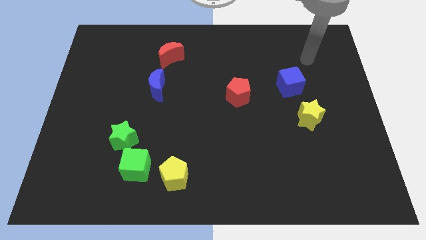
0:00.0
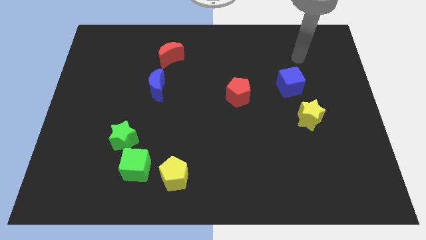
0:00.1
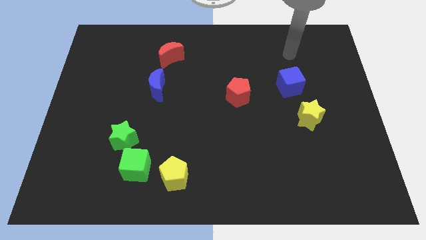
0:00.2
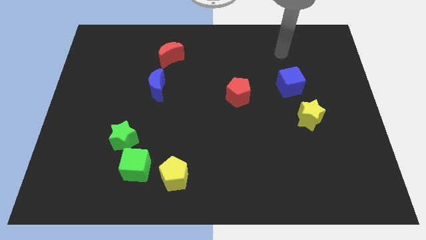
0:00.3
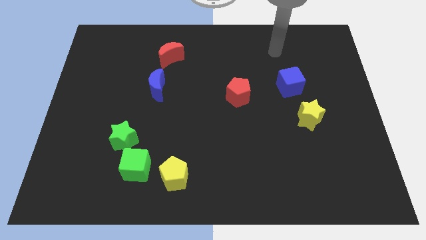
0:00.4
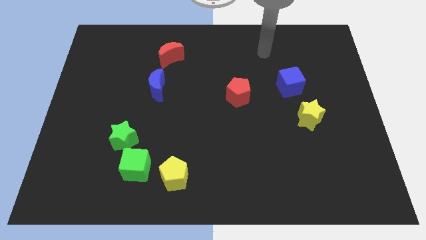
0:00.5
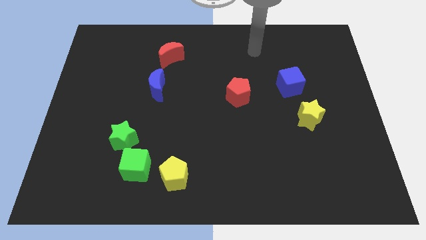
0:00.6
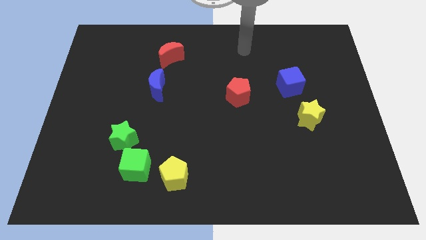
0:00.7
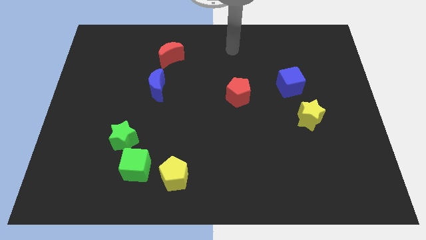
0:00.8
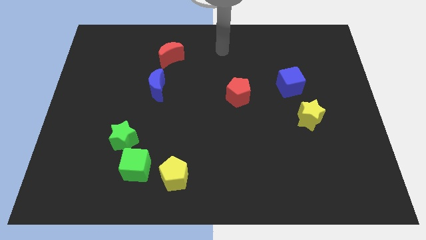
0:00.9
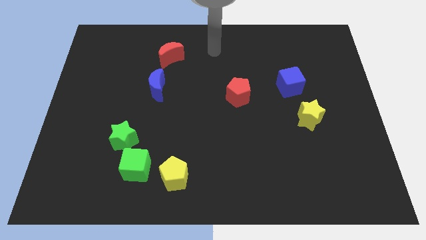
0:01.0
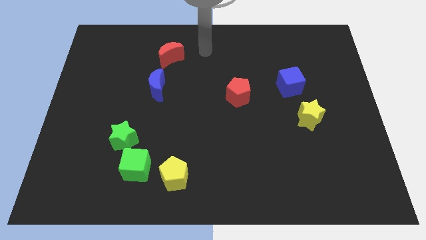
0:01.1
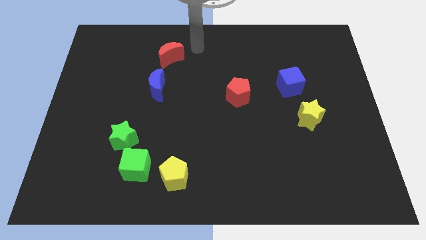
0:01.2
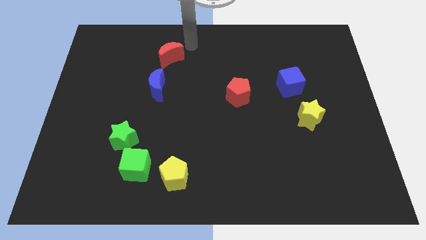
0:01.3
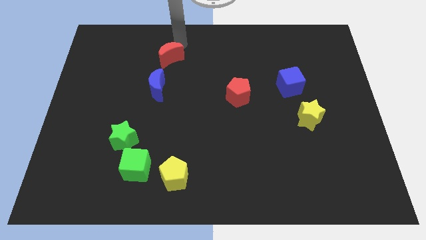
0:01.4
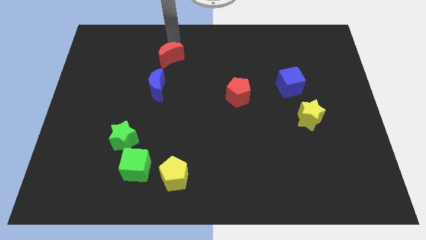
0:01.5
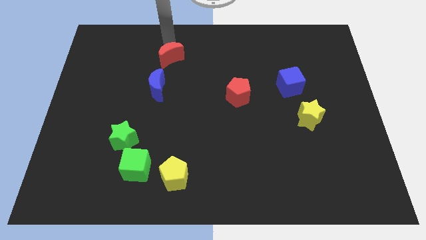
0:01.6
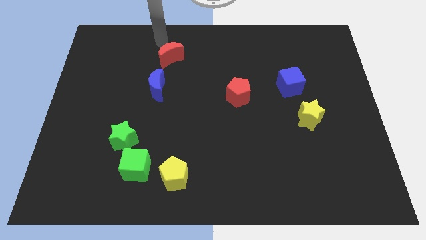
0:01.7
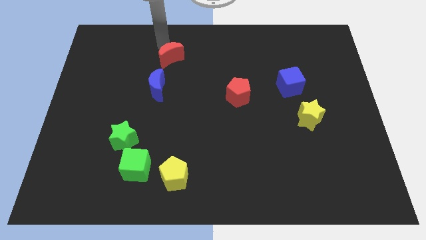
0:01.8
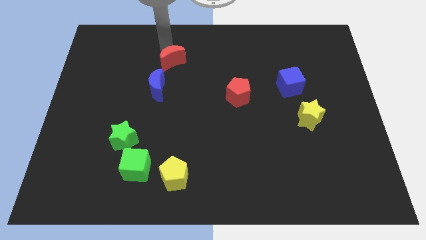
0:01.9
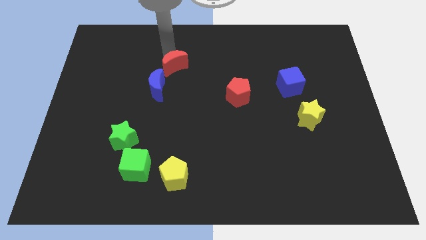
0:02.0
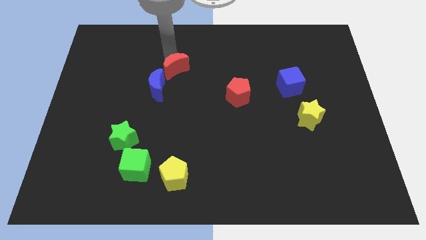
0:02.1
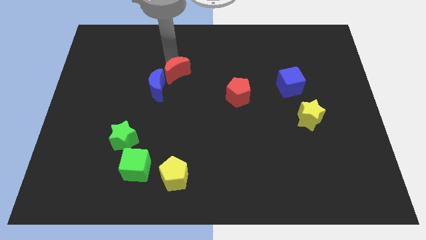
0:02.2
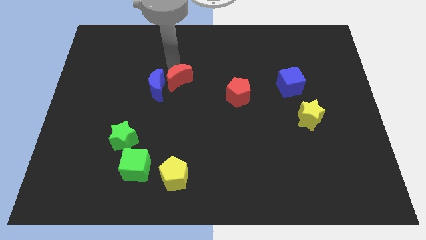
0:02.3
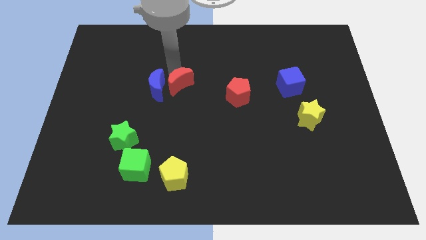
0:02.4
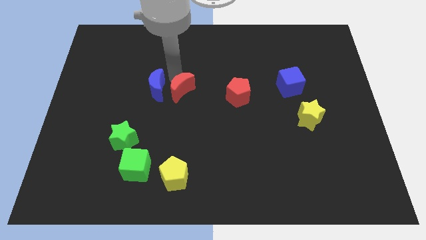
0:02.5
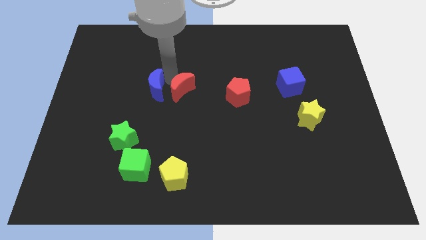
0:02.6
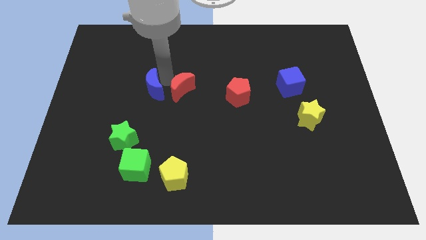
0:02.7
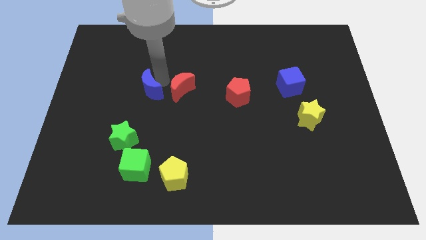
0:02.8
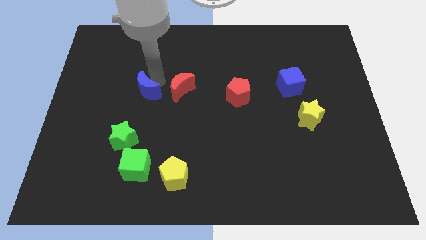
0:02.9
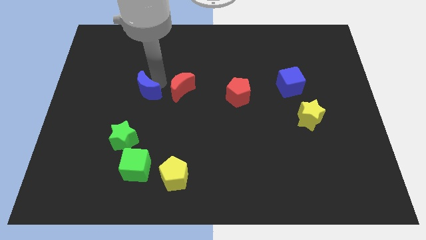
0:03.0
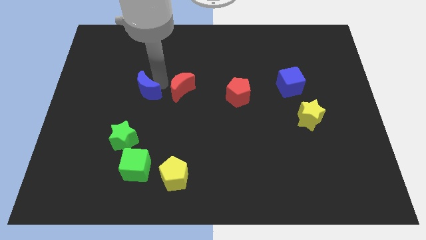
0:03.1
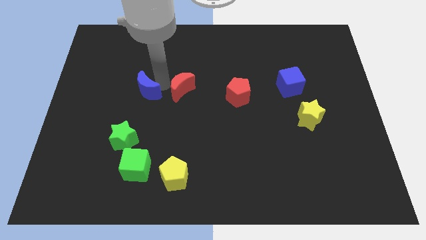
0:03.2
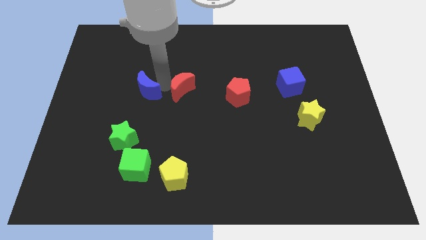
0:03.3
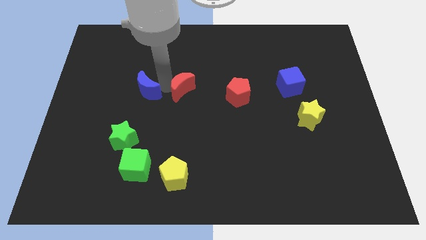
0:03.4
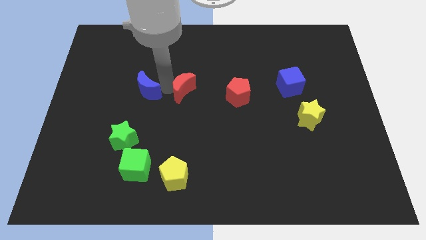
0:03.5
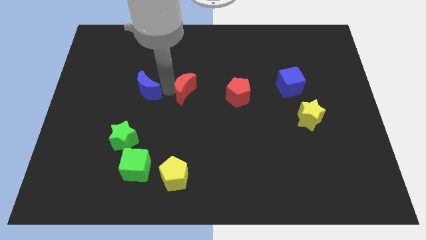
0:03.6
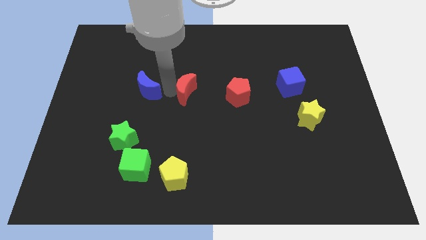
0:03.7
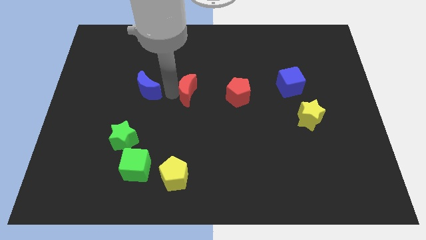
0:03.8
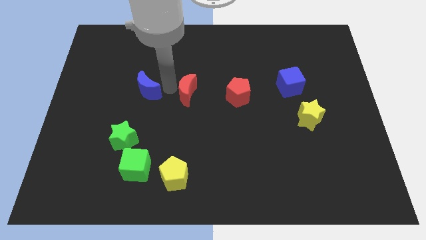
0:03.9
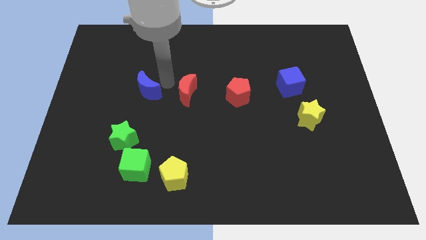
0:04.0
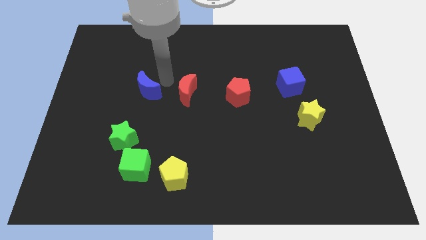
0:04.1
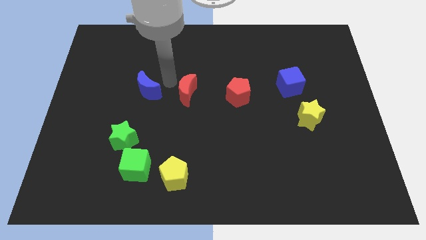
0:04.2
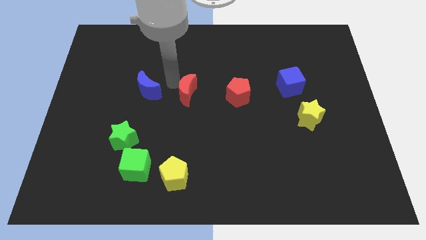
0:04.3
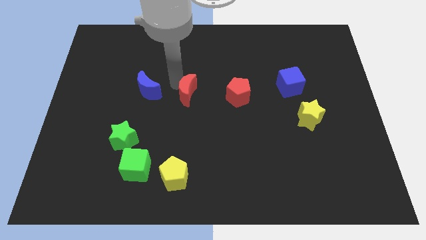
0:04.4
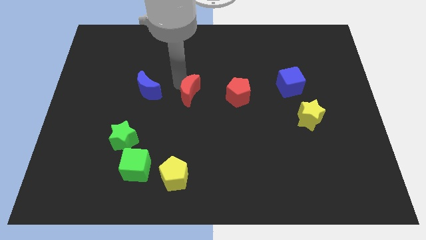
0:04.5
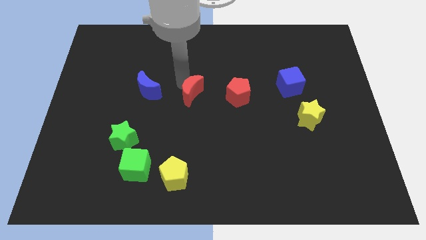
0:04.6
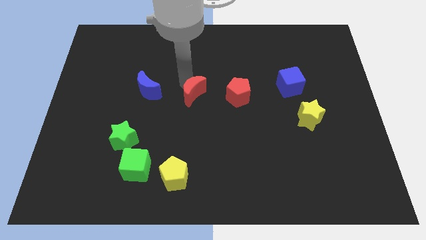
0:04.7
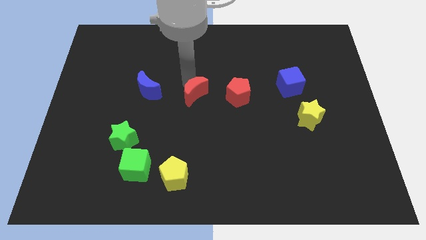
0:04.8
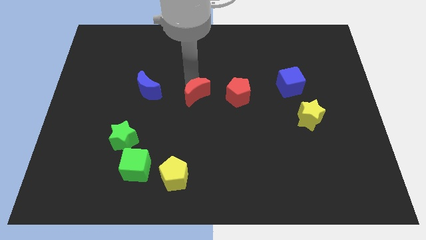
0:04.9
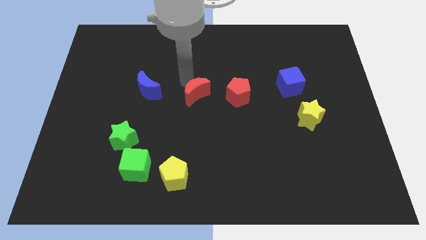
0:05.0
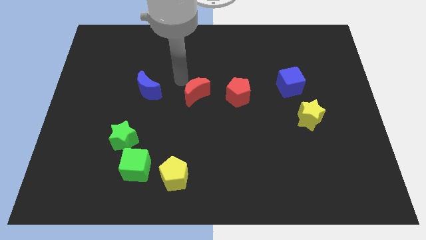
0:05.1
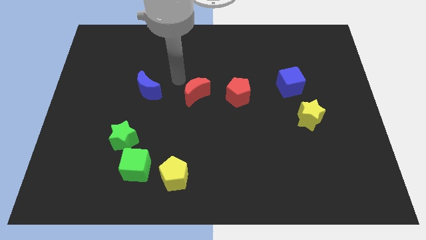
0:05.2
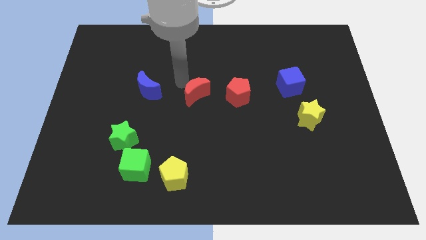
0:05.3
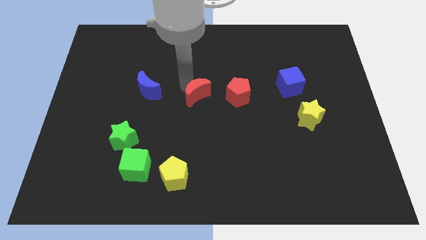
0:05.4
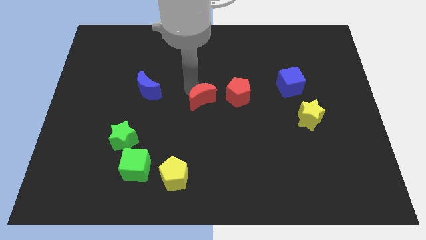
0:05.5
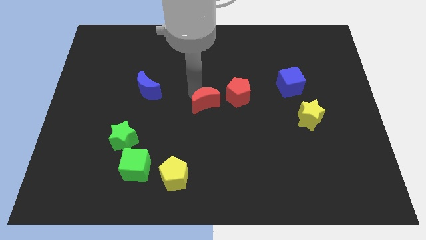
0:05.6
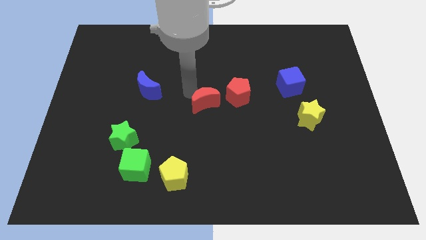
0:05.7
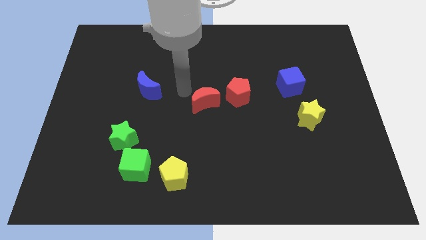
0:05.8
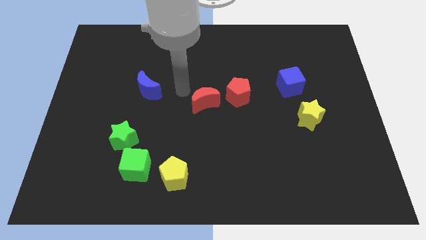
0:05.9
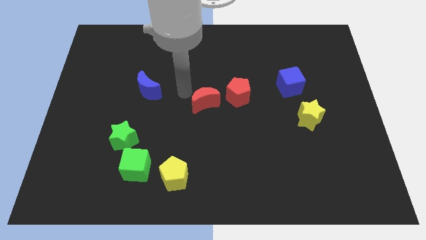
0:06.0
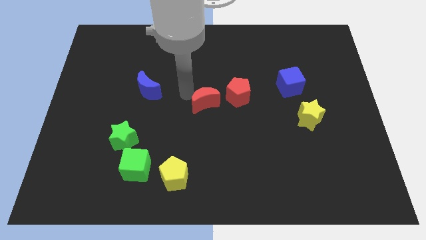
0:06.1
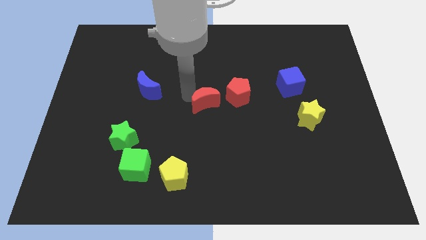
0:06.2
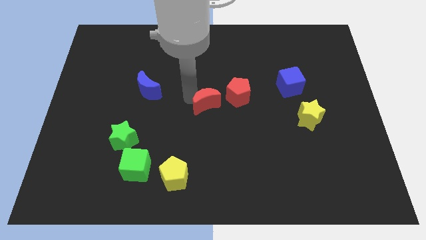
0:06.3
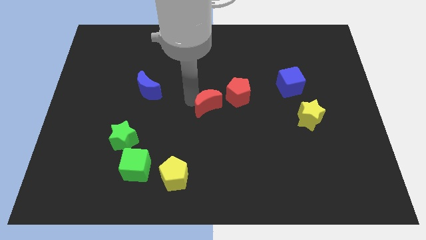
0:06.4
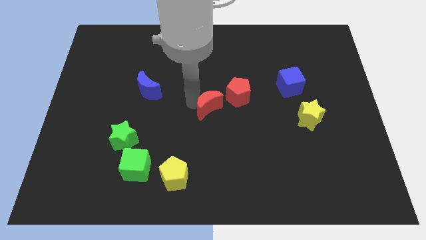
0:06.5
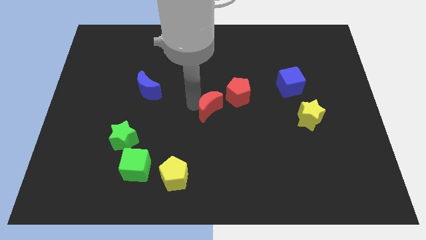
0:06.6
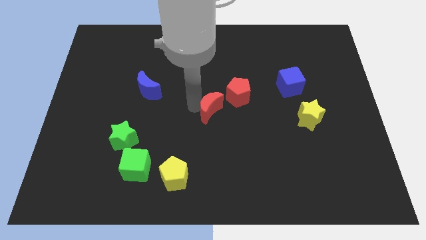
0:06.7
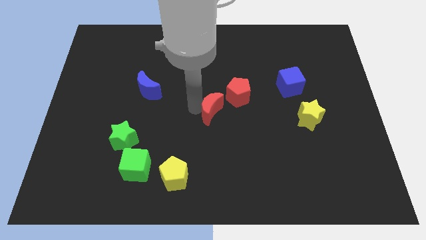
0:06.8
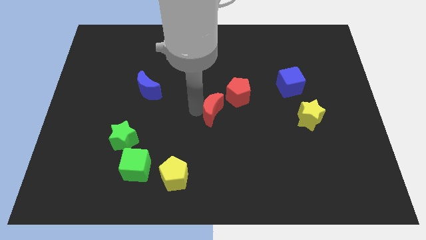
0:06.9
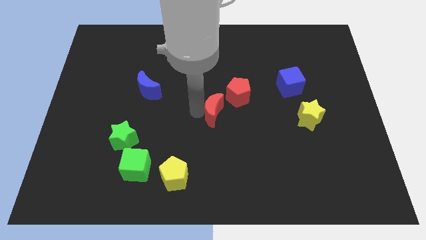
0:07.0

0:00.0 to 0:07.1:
push the red moon downwards and right

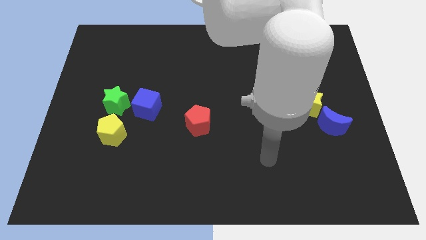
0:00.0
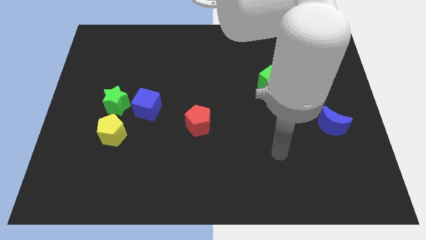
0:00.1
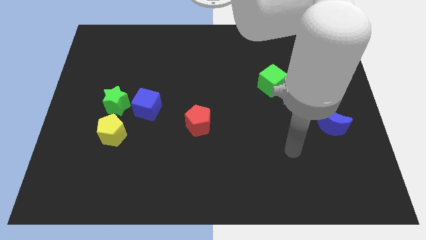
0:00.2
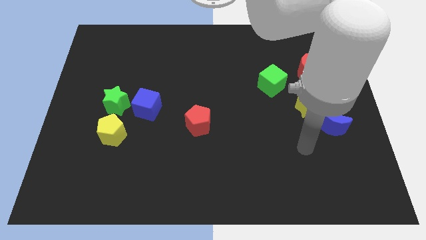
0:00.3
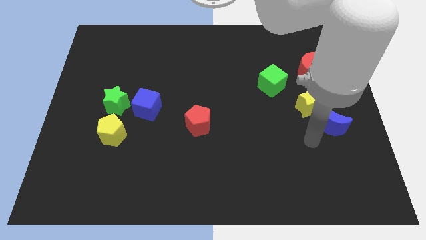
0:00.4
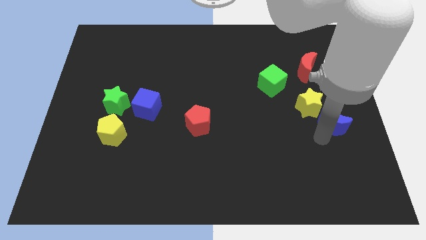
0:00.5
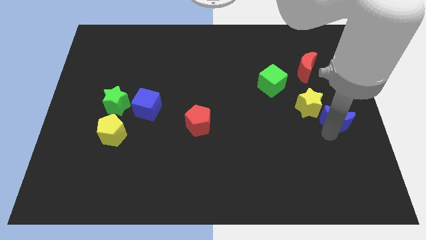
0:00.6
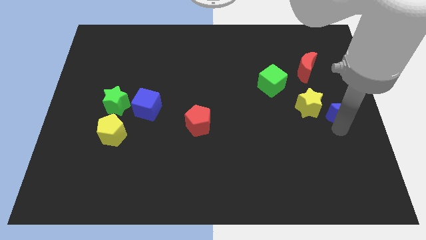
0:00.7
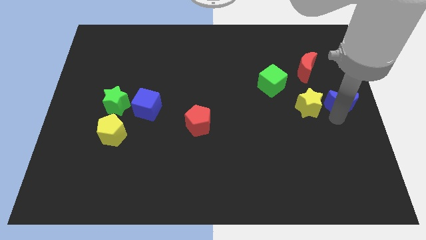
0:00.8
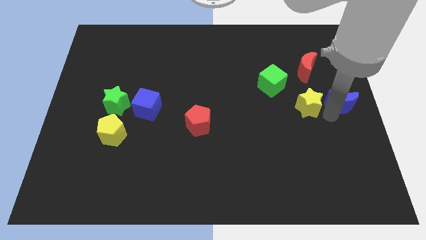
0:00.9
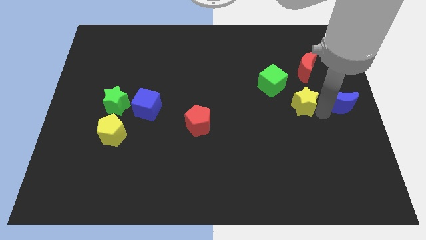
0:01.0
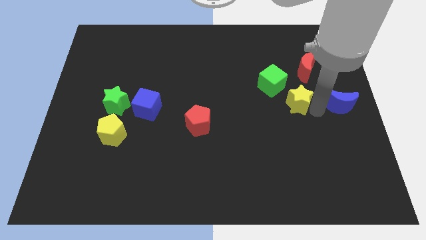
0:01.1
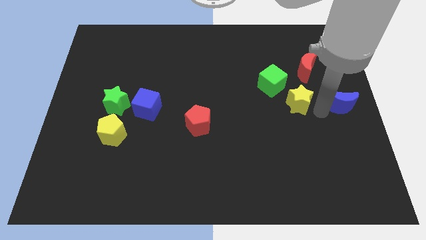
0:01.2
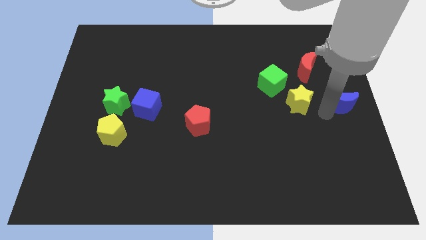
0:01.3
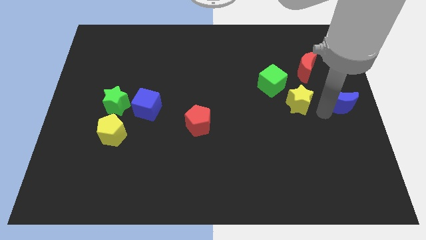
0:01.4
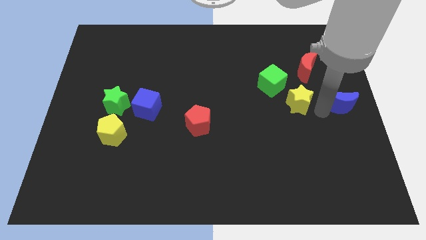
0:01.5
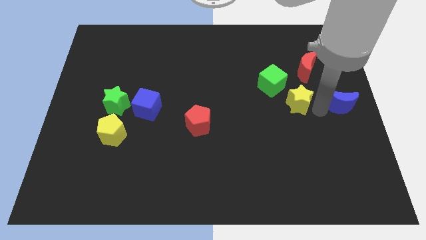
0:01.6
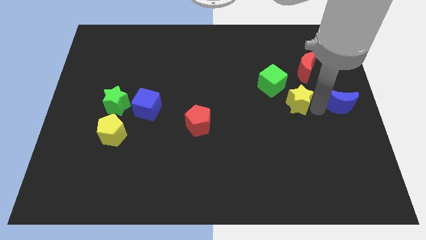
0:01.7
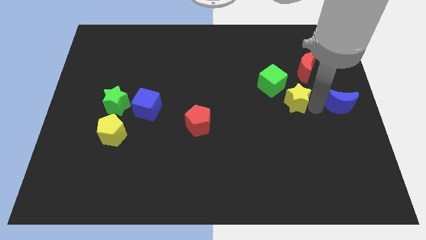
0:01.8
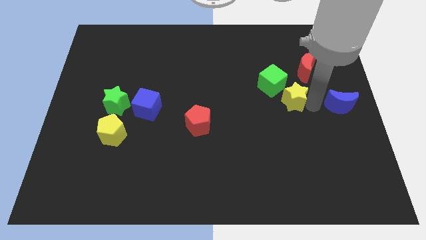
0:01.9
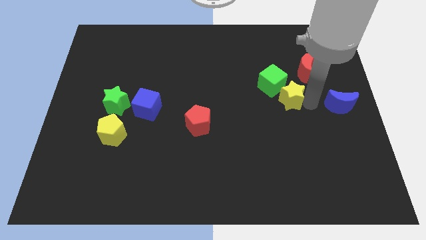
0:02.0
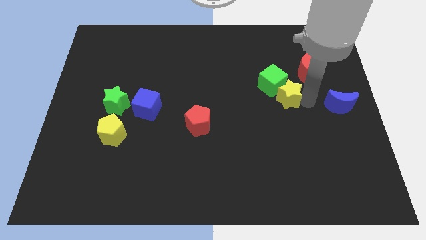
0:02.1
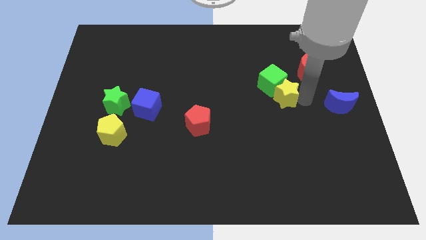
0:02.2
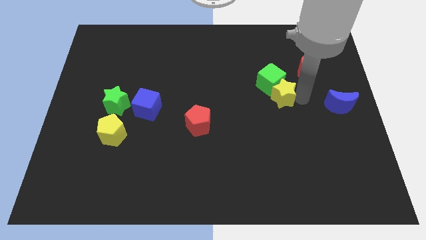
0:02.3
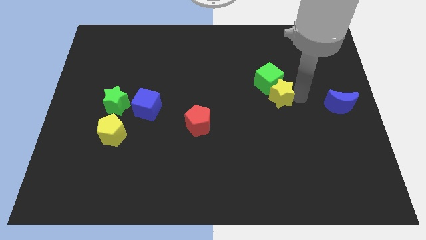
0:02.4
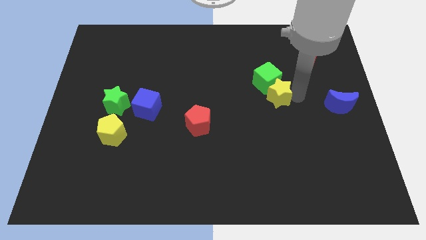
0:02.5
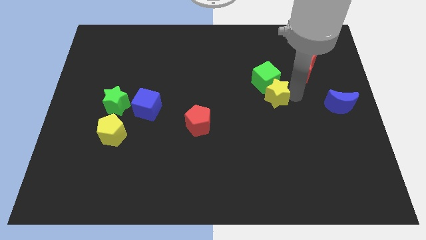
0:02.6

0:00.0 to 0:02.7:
slide the yellow star to the left a little
